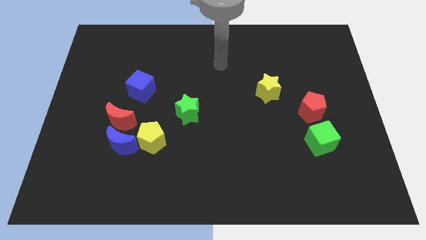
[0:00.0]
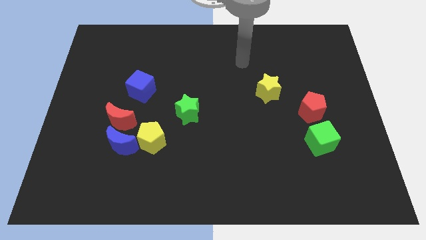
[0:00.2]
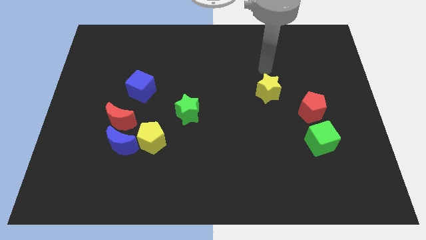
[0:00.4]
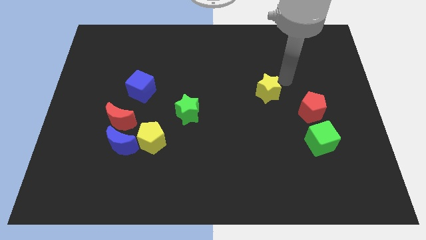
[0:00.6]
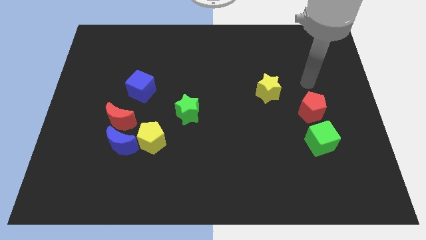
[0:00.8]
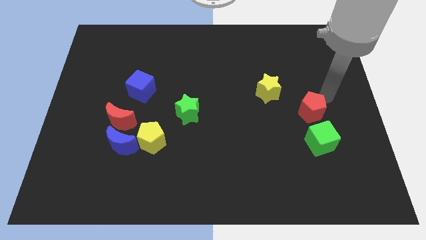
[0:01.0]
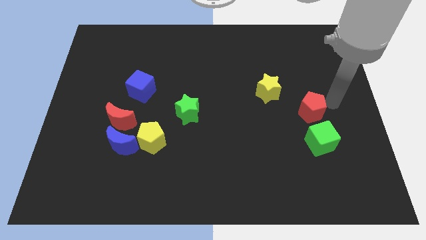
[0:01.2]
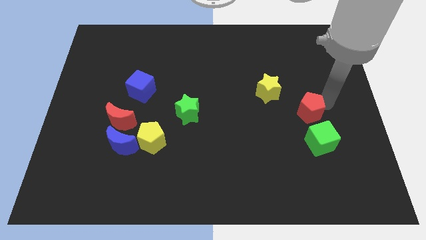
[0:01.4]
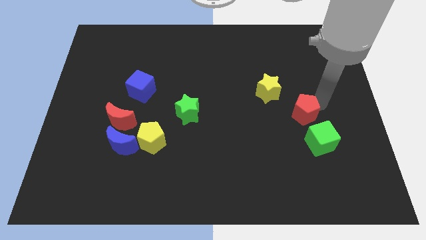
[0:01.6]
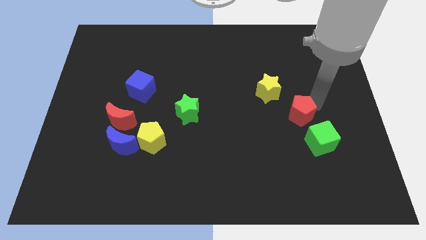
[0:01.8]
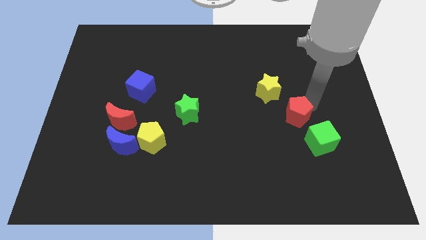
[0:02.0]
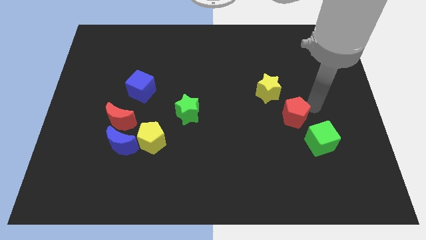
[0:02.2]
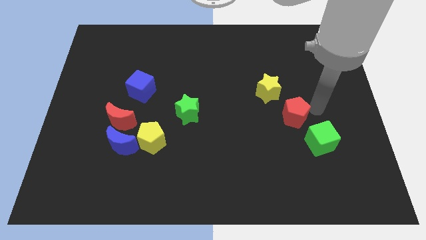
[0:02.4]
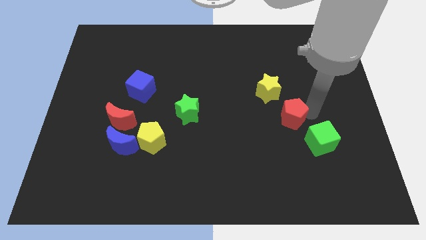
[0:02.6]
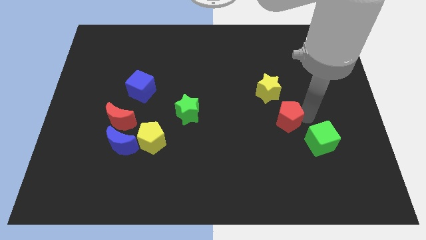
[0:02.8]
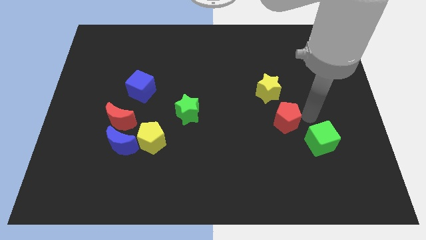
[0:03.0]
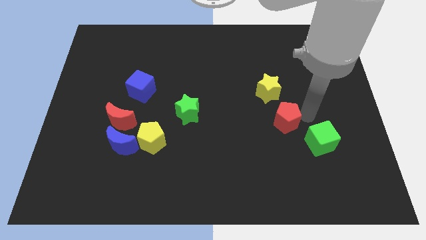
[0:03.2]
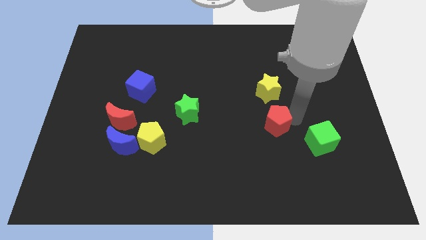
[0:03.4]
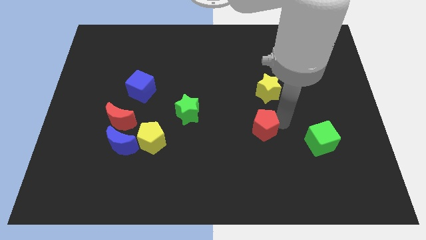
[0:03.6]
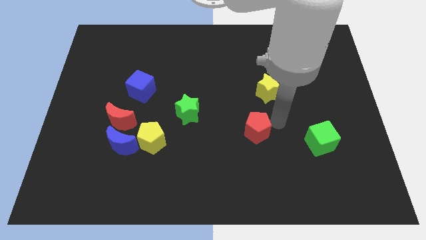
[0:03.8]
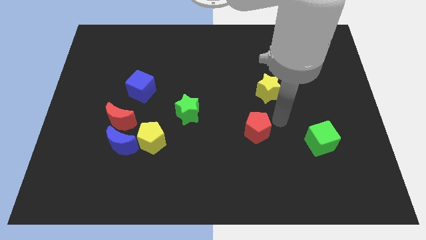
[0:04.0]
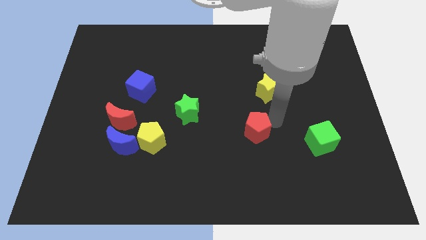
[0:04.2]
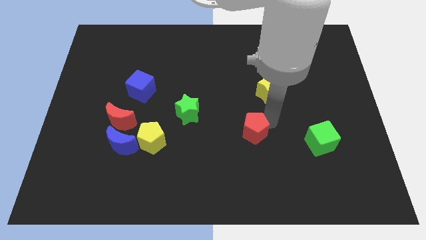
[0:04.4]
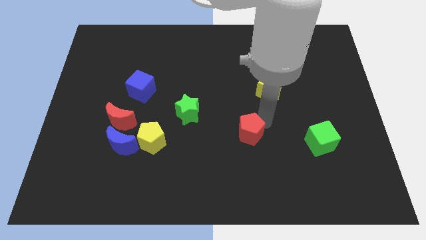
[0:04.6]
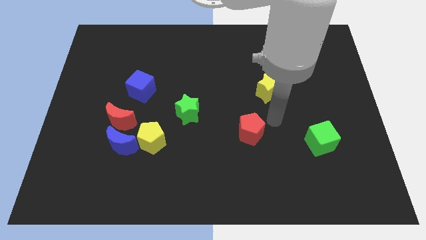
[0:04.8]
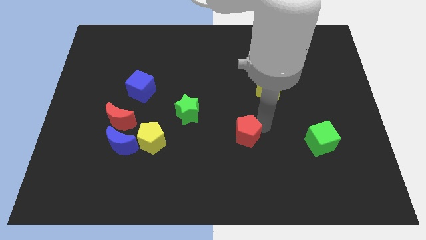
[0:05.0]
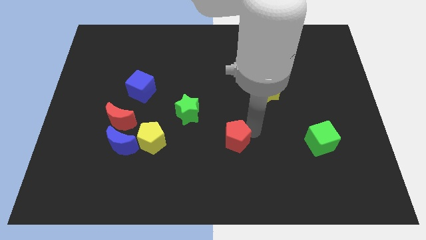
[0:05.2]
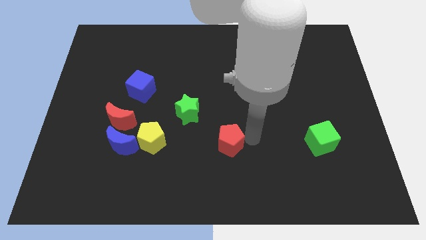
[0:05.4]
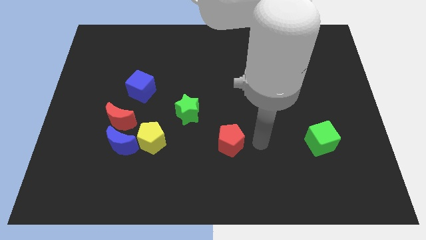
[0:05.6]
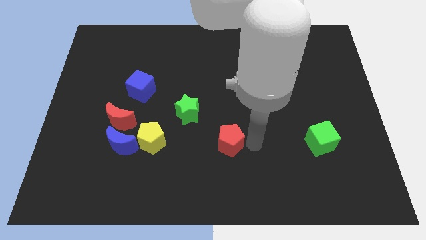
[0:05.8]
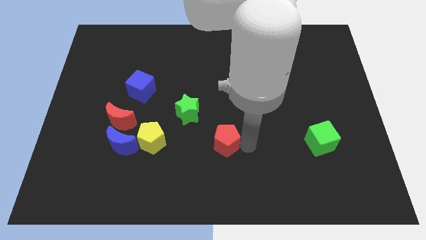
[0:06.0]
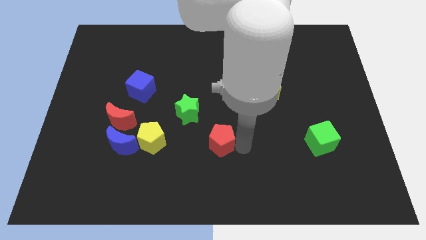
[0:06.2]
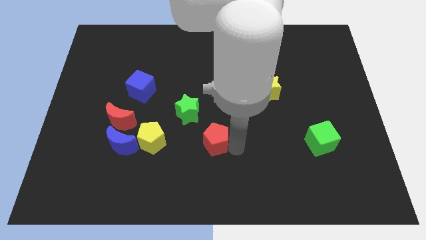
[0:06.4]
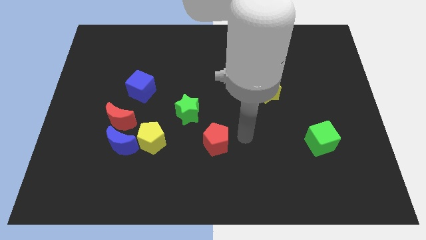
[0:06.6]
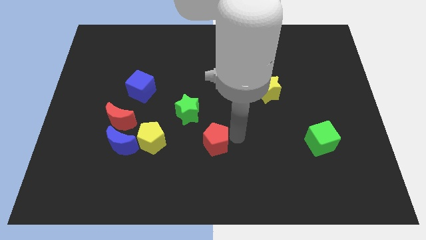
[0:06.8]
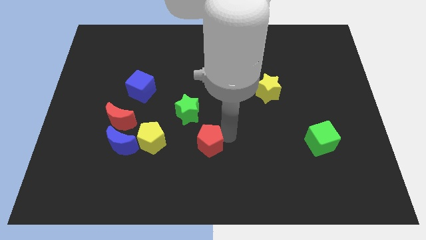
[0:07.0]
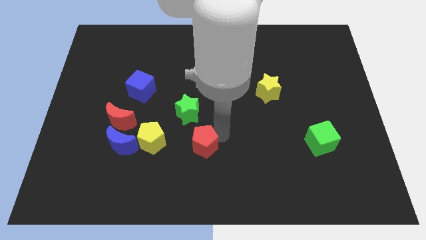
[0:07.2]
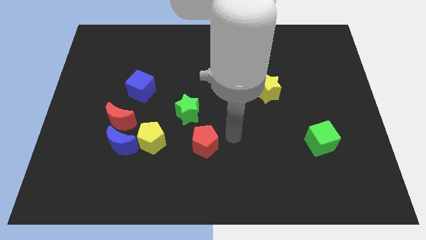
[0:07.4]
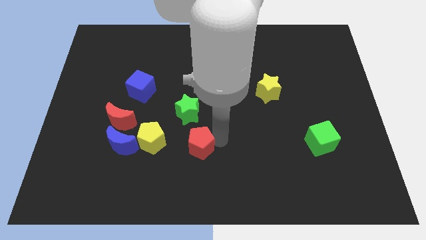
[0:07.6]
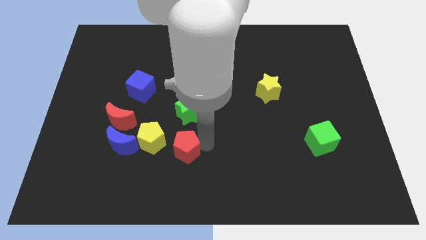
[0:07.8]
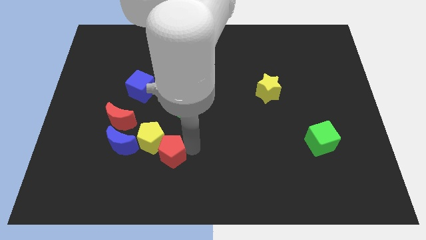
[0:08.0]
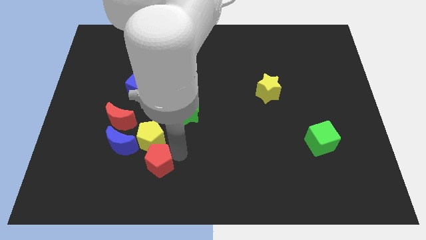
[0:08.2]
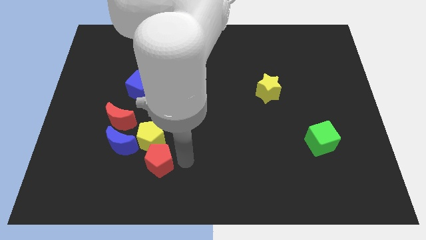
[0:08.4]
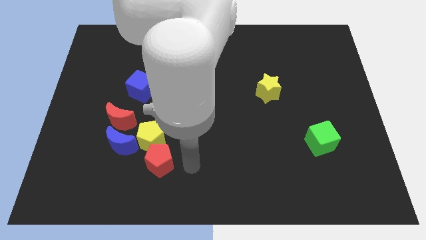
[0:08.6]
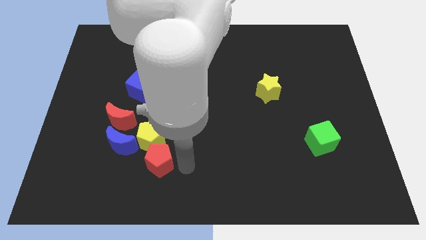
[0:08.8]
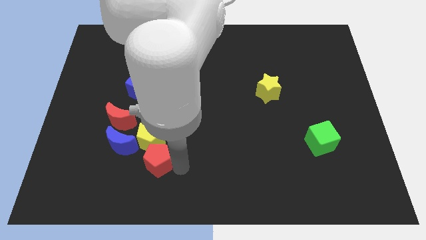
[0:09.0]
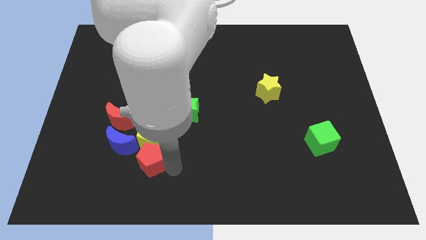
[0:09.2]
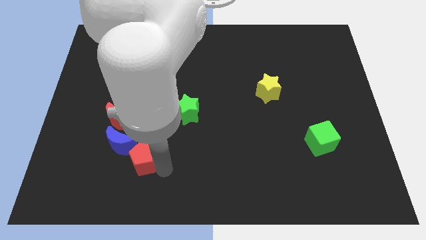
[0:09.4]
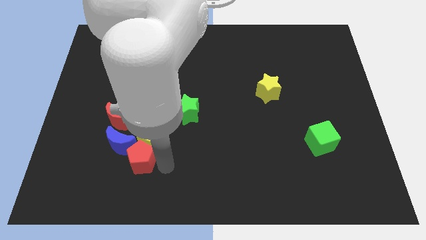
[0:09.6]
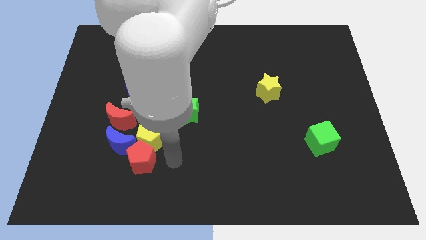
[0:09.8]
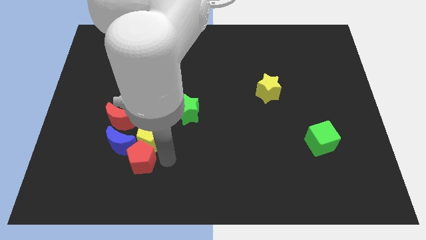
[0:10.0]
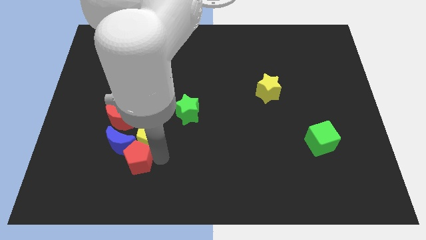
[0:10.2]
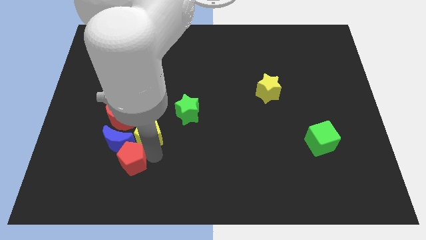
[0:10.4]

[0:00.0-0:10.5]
move the red pentagon to the bottom side of the red moon

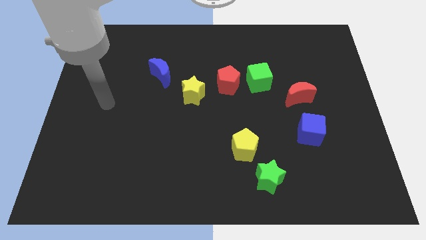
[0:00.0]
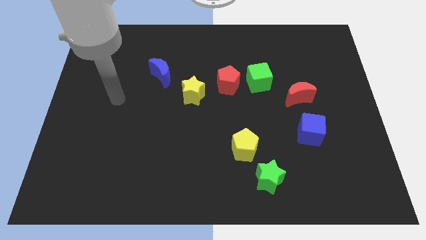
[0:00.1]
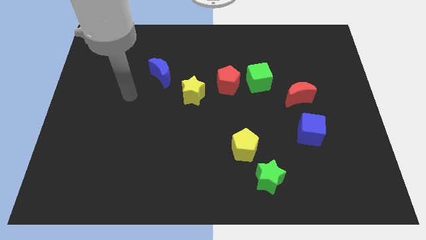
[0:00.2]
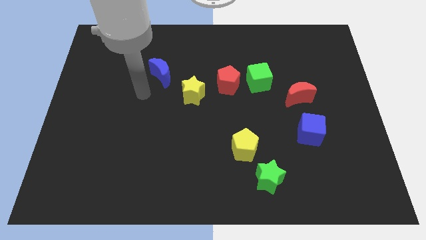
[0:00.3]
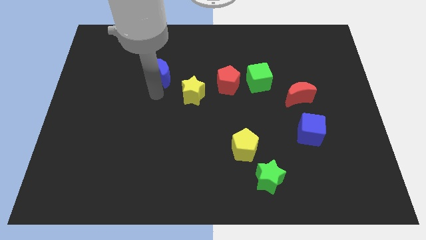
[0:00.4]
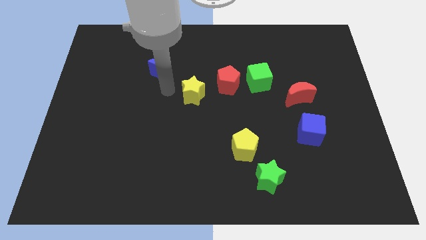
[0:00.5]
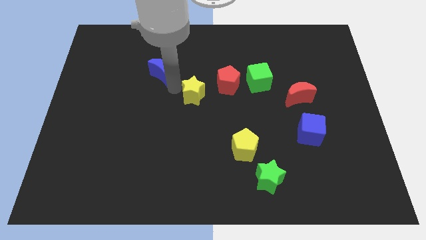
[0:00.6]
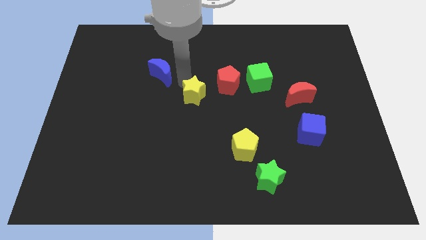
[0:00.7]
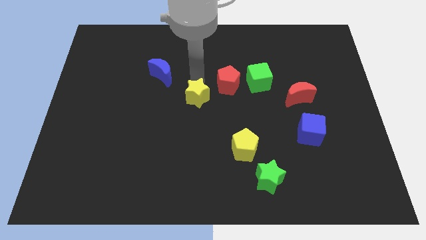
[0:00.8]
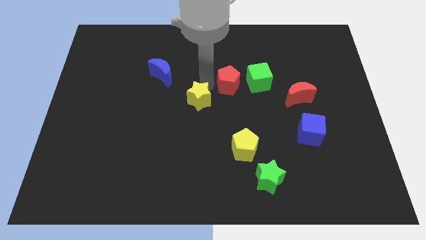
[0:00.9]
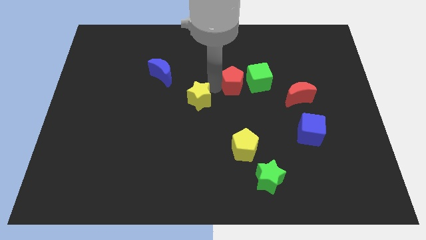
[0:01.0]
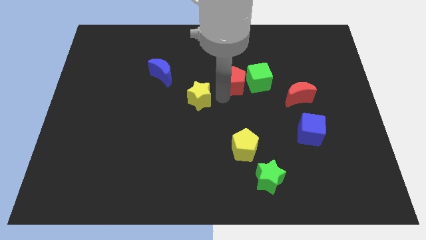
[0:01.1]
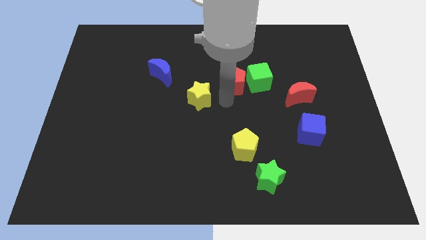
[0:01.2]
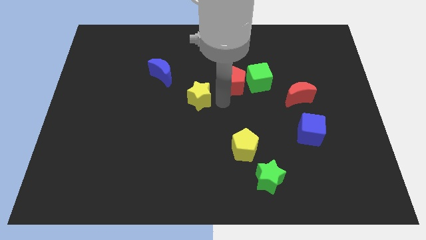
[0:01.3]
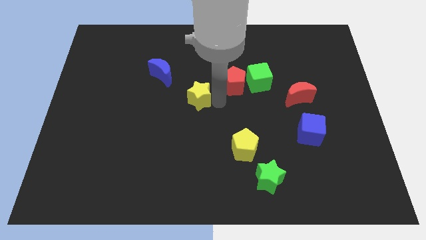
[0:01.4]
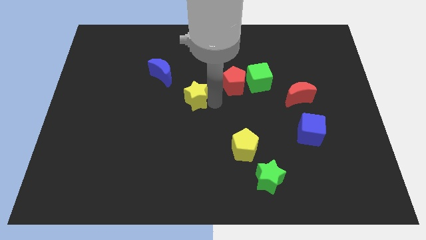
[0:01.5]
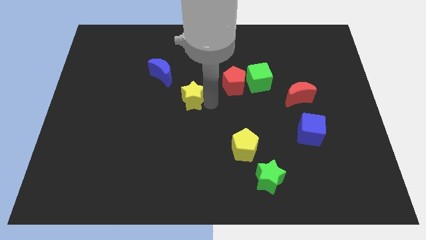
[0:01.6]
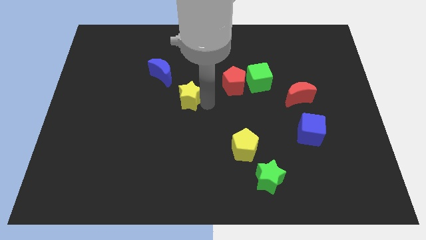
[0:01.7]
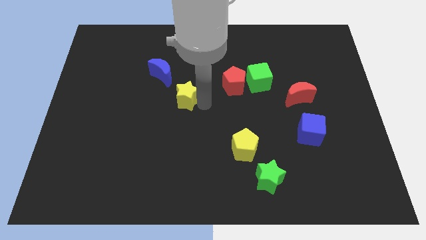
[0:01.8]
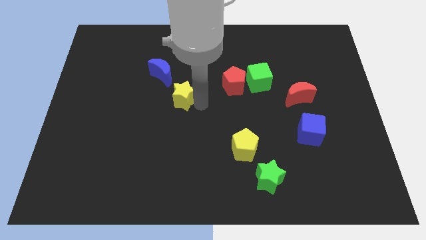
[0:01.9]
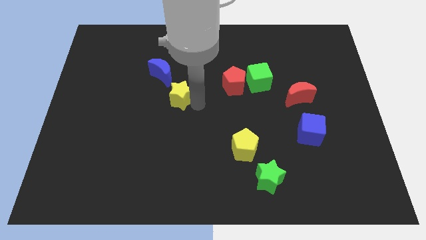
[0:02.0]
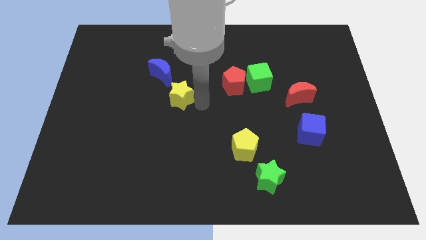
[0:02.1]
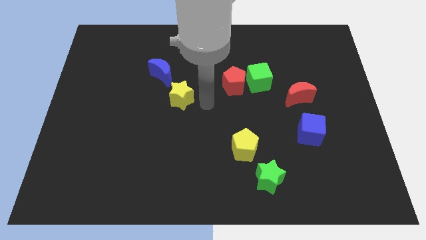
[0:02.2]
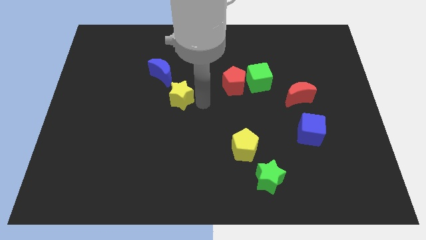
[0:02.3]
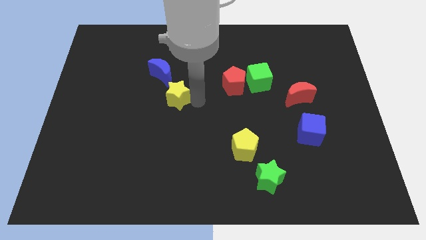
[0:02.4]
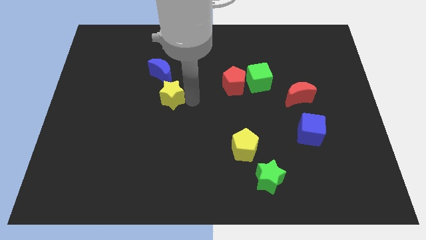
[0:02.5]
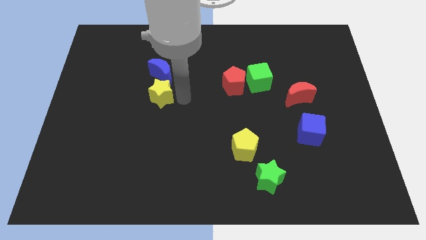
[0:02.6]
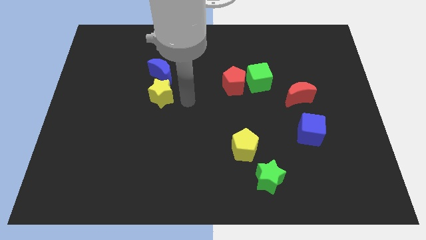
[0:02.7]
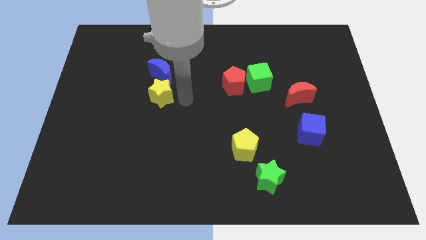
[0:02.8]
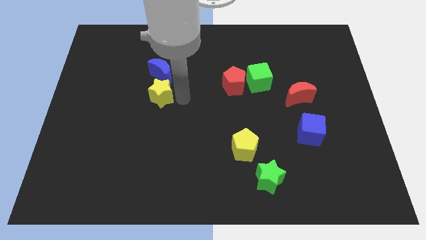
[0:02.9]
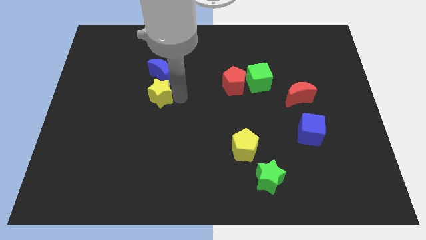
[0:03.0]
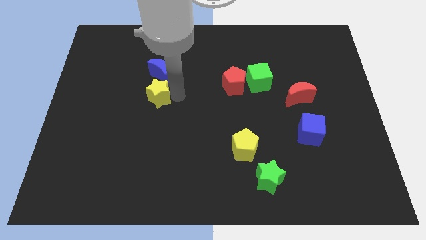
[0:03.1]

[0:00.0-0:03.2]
slide the yellow star diagonally down and to the left of the blue moon
